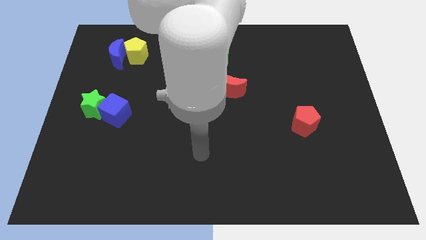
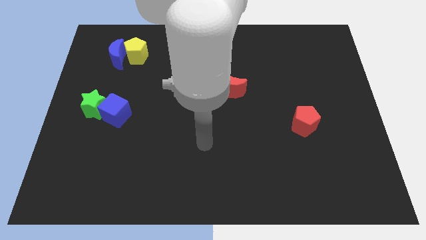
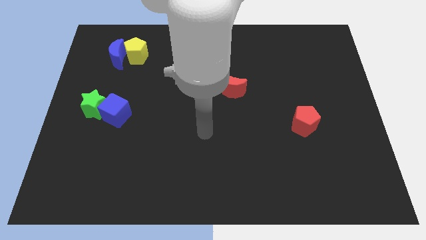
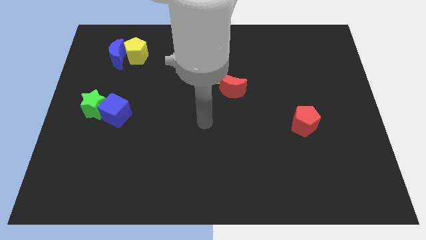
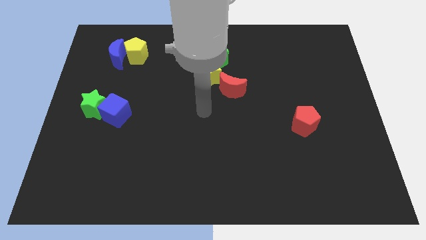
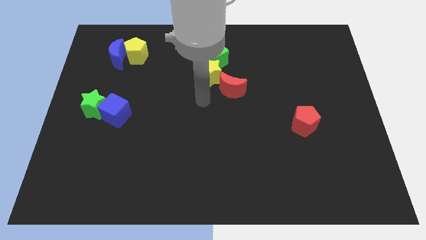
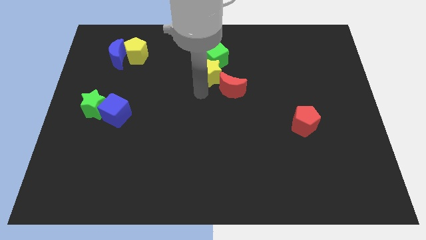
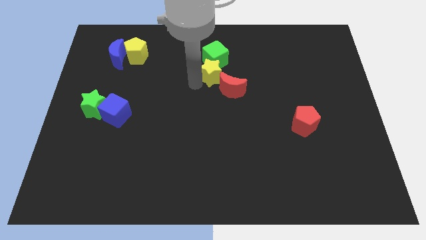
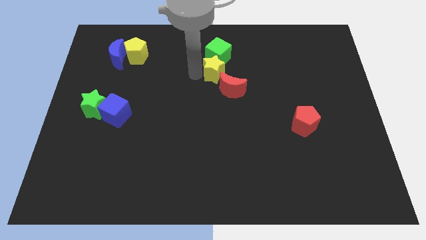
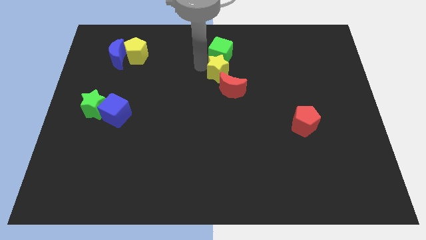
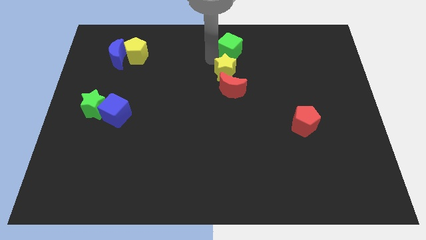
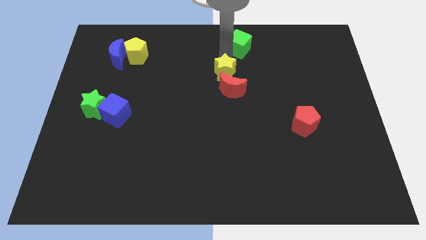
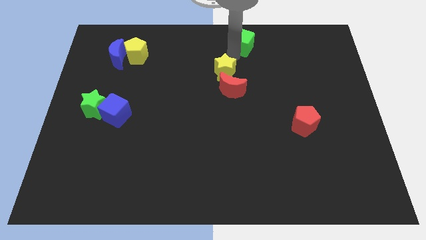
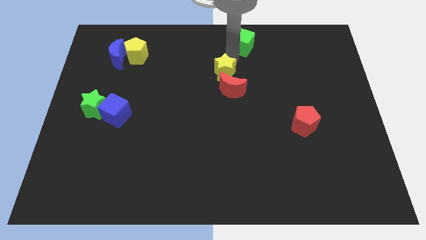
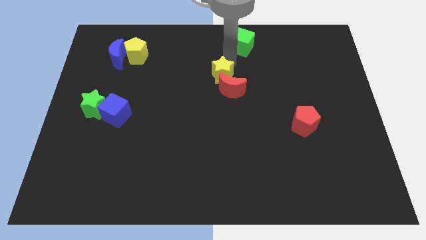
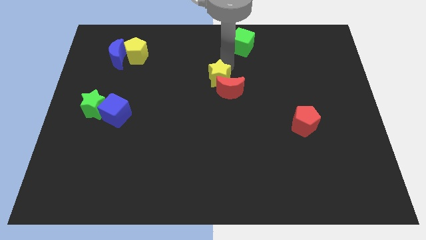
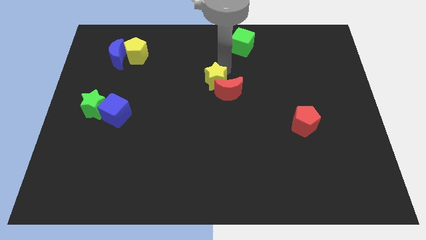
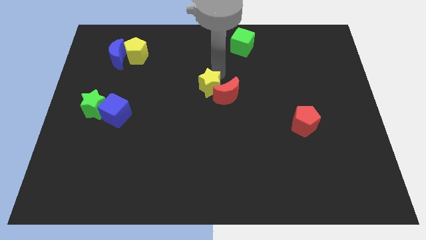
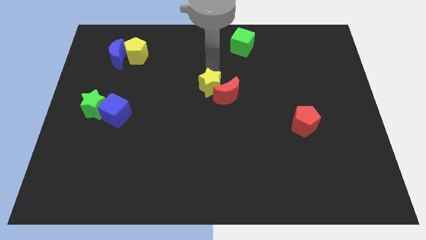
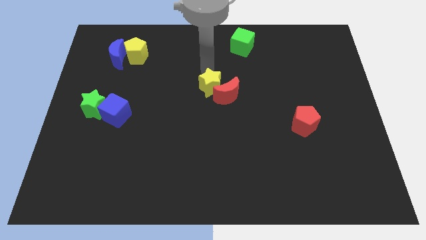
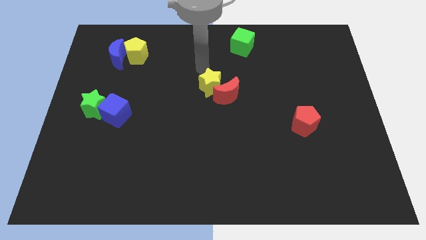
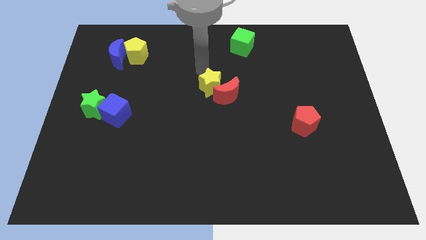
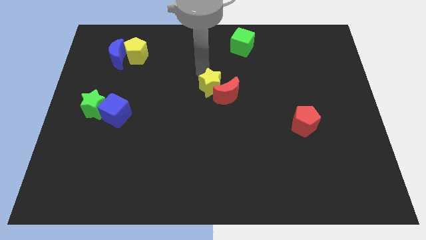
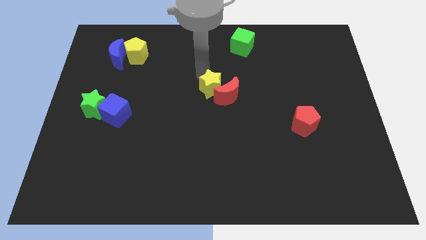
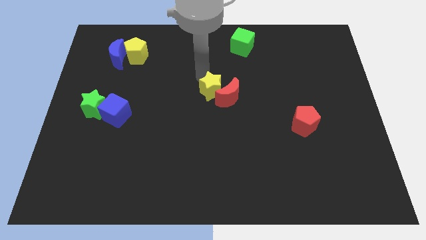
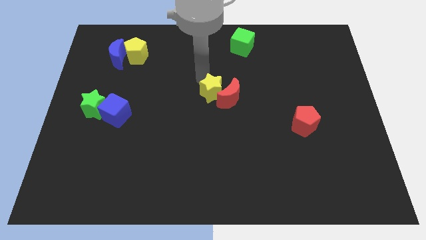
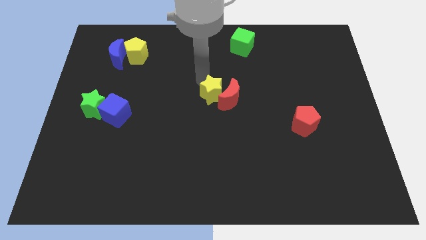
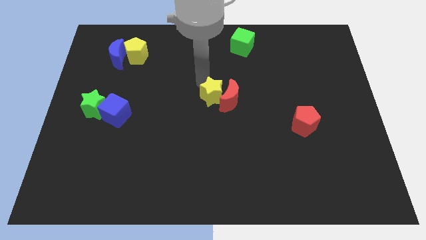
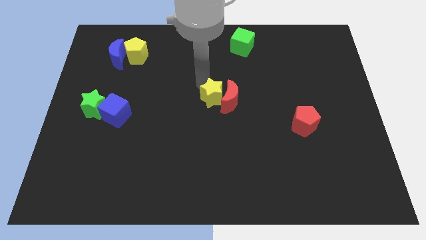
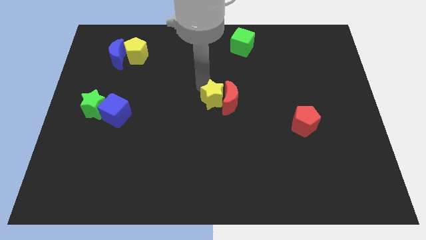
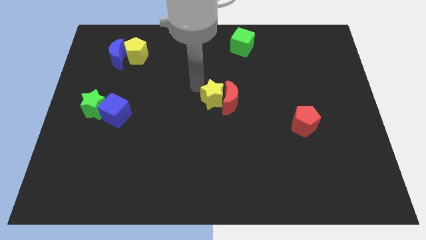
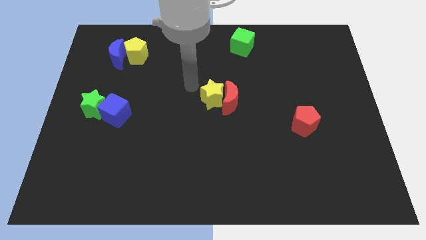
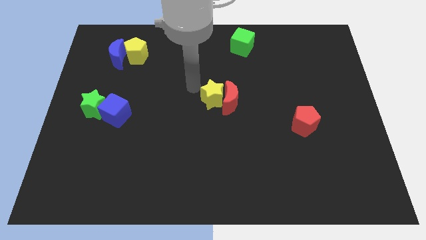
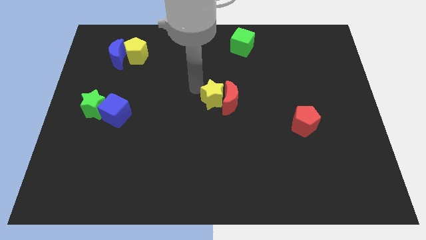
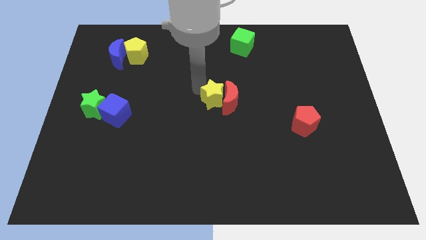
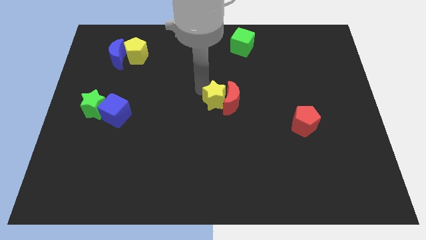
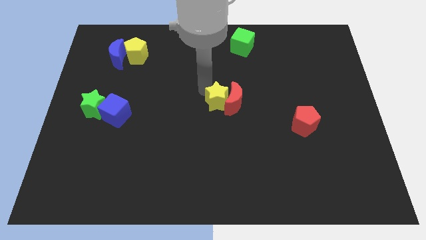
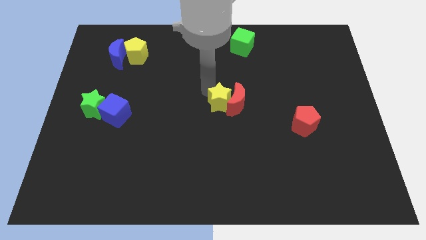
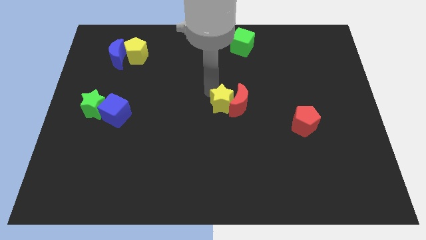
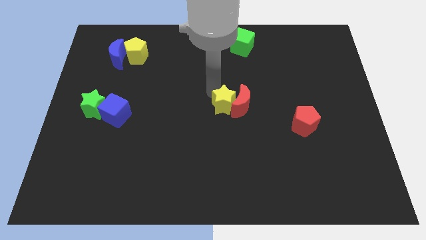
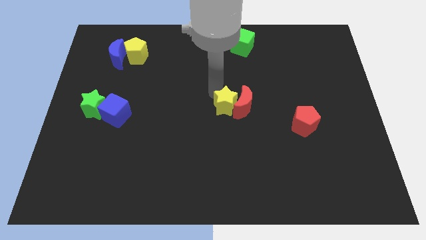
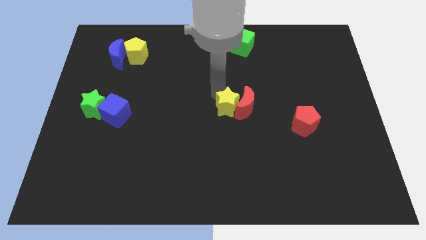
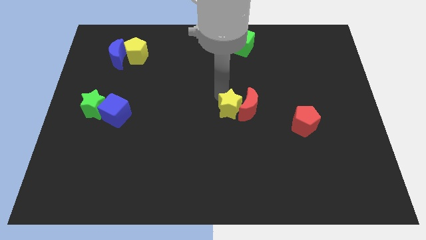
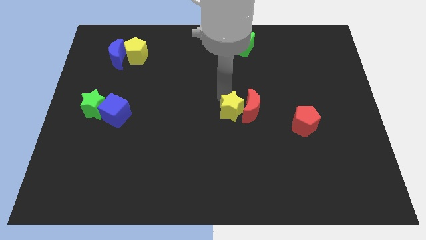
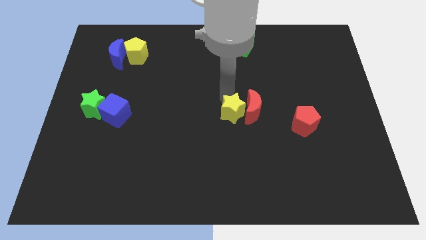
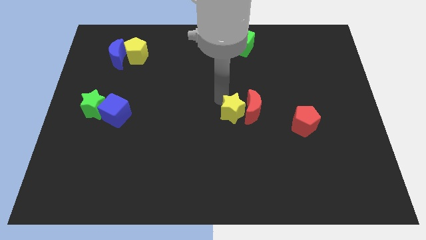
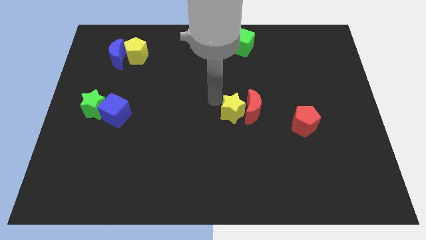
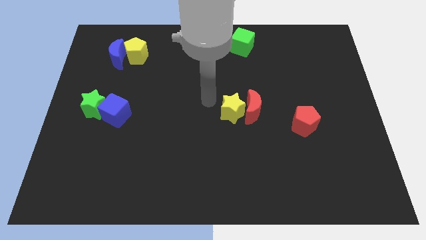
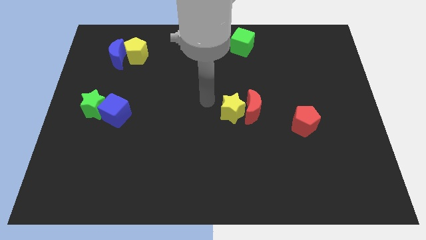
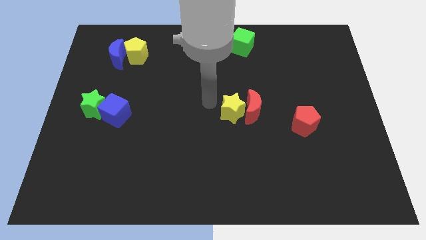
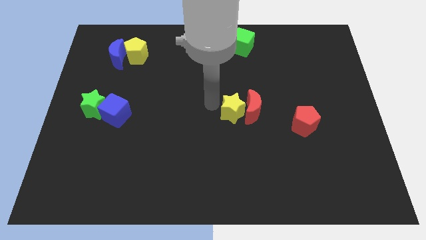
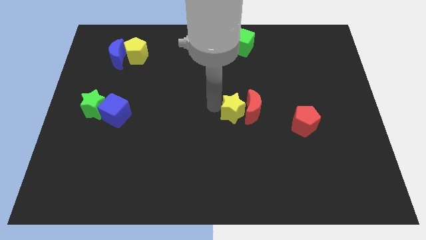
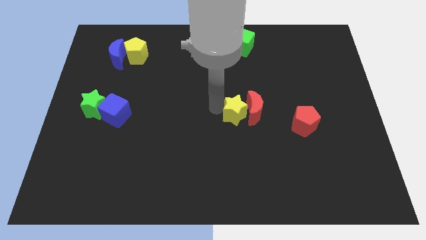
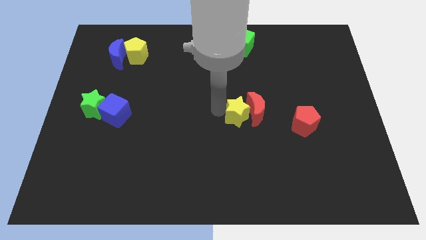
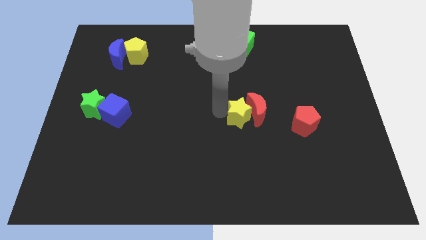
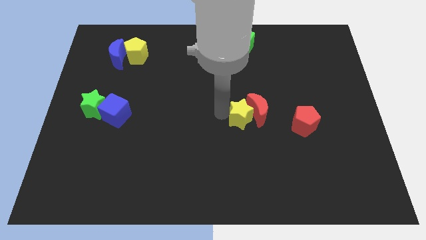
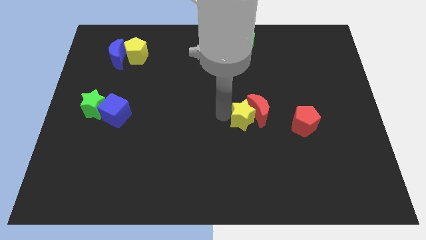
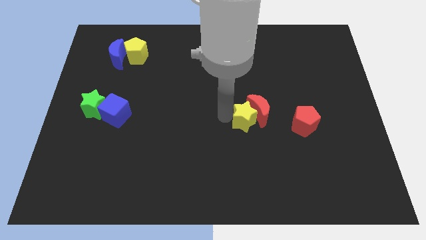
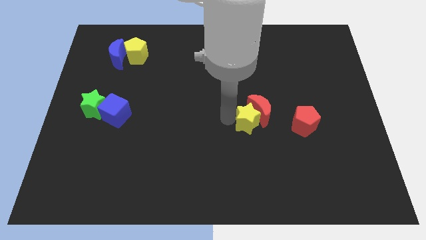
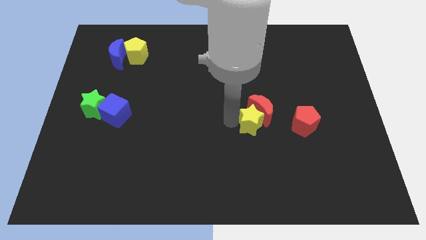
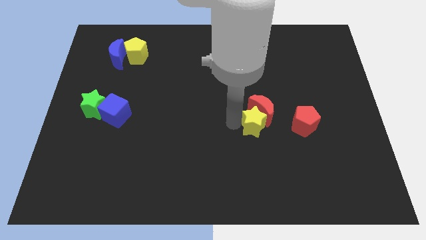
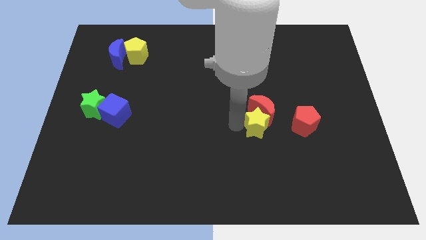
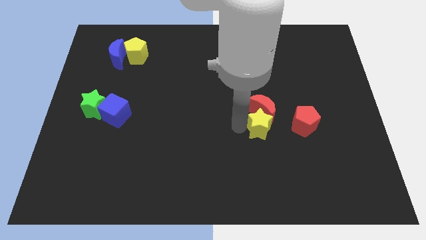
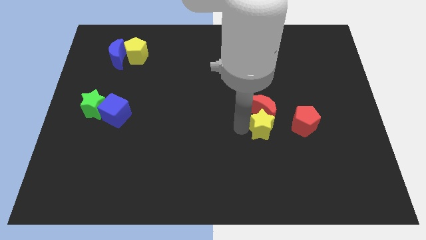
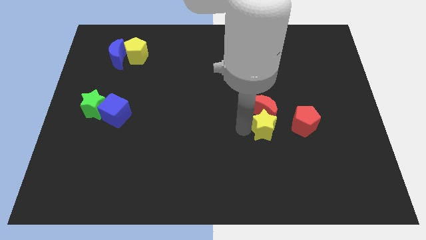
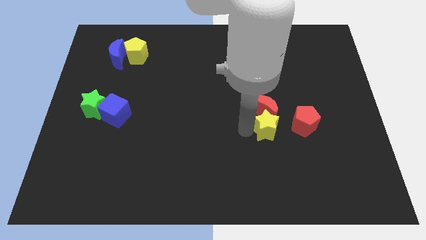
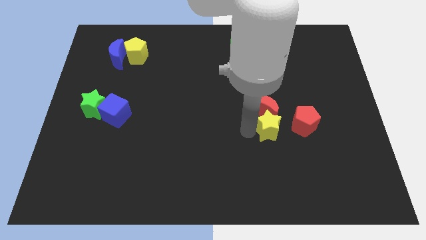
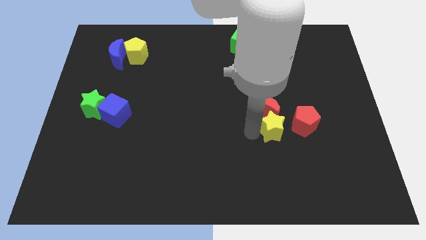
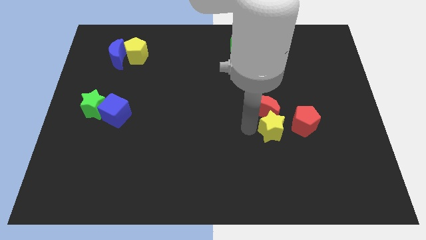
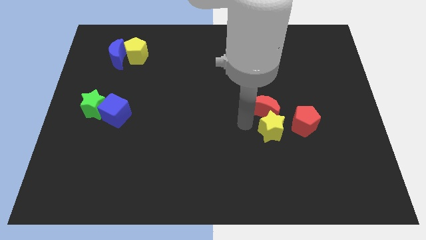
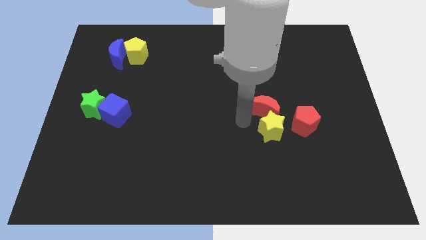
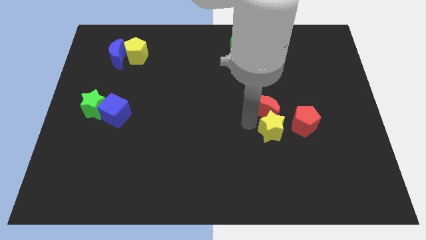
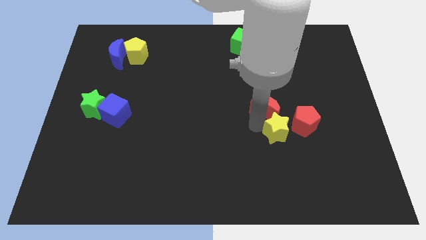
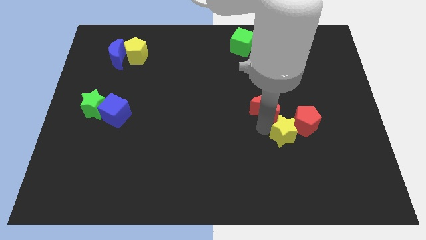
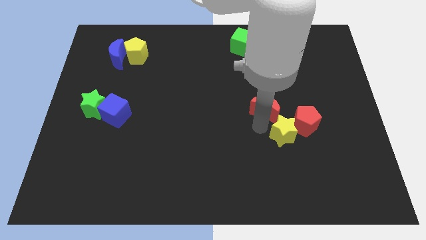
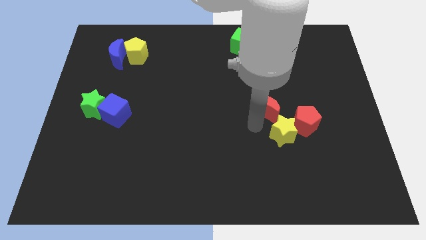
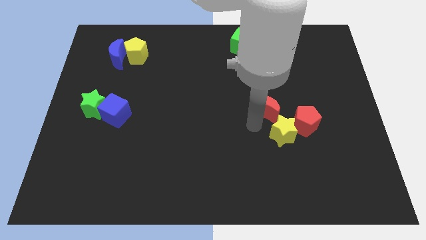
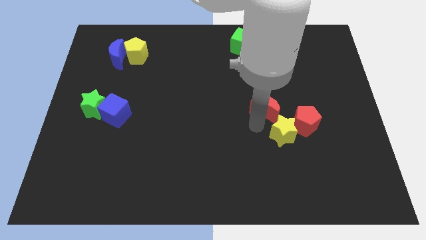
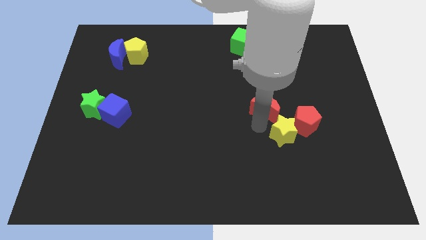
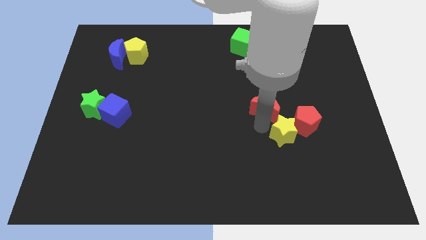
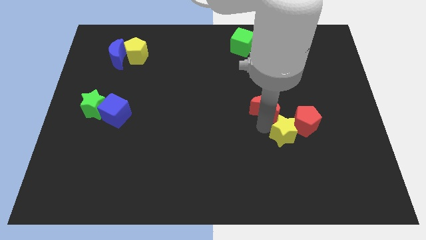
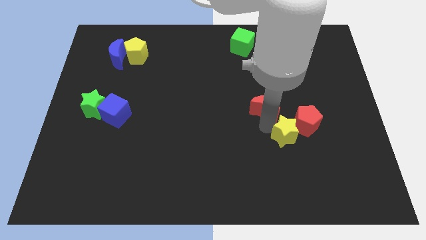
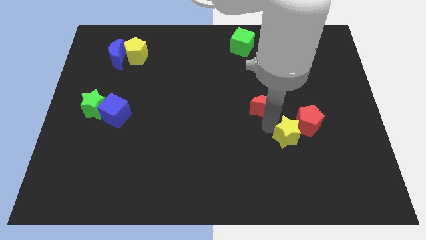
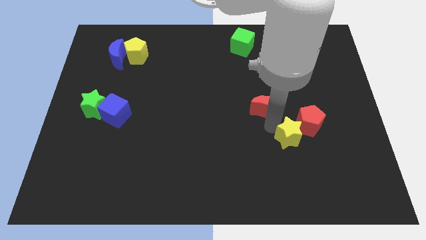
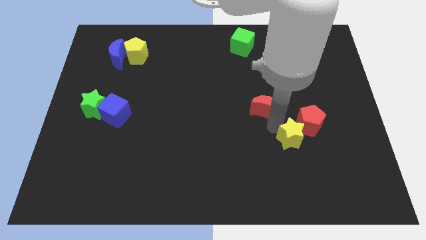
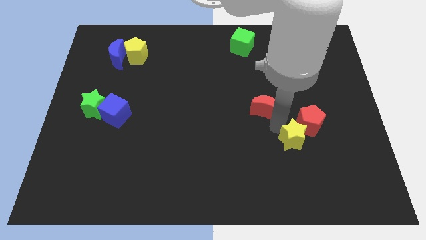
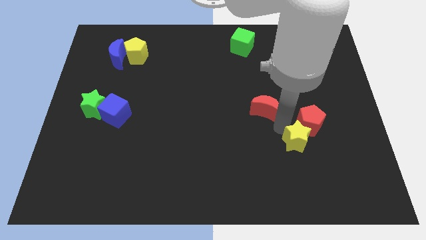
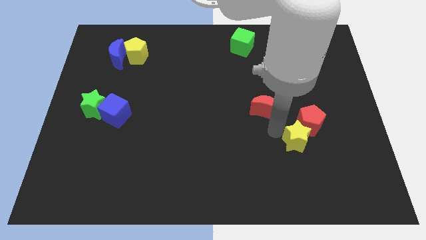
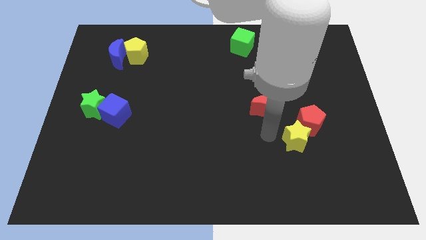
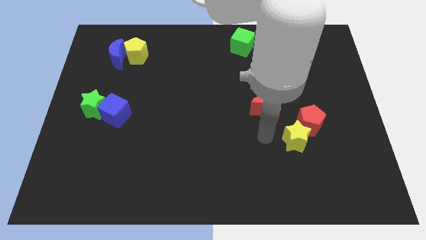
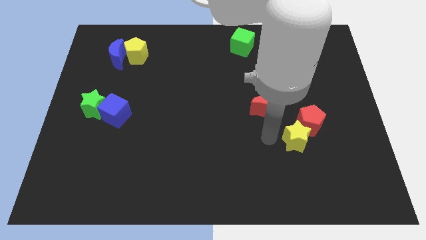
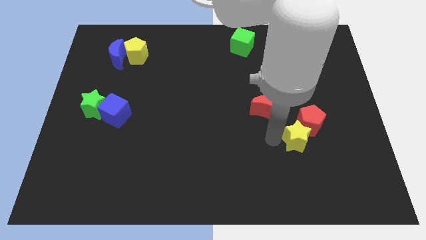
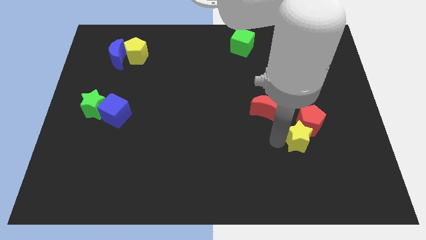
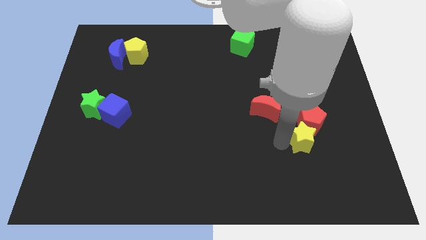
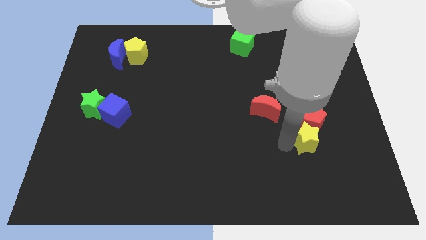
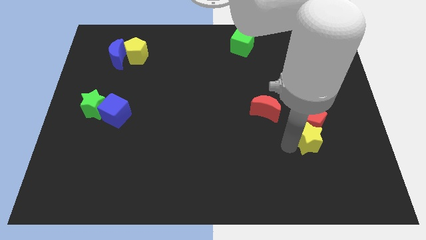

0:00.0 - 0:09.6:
push the yellow star to the bottom right side of the red pentagon
